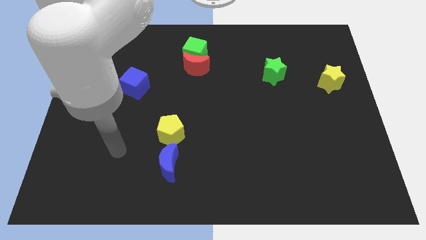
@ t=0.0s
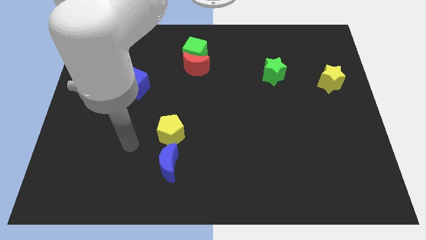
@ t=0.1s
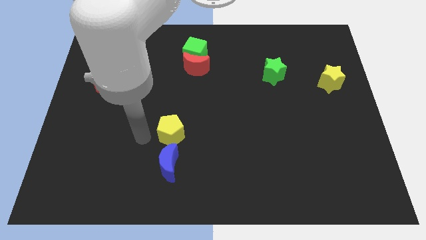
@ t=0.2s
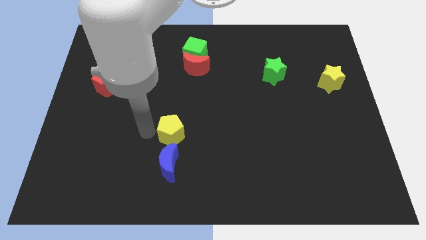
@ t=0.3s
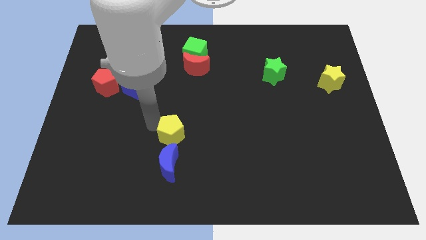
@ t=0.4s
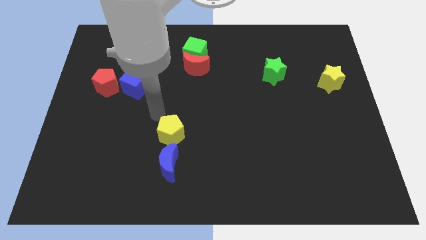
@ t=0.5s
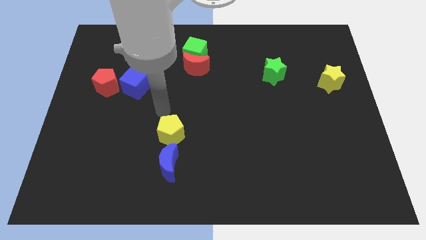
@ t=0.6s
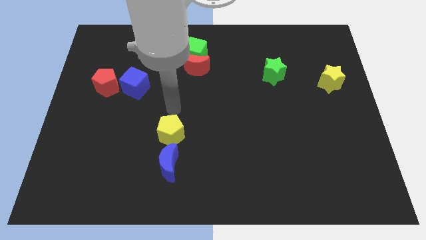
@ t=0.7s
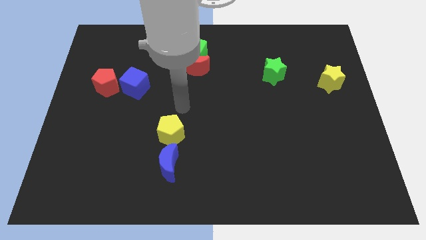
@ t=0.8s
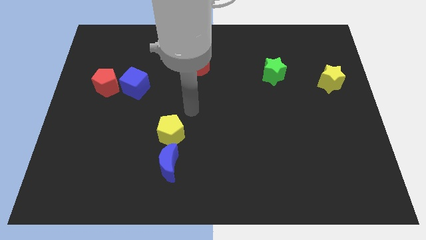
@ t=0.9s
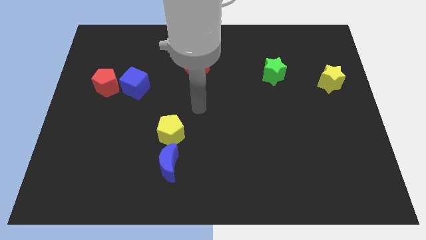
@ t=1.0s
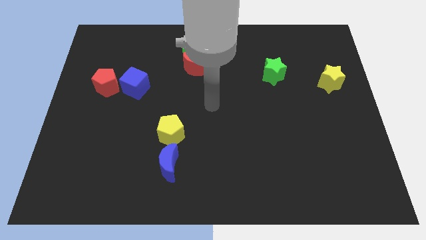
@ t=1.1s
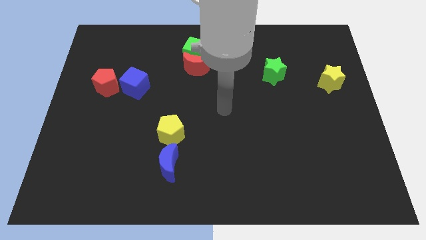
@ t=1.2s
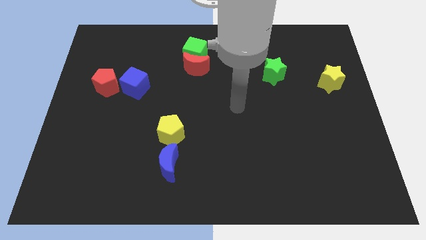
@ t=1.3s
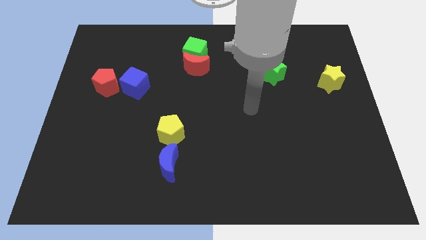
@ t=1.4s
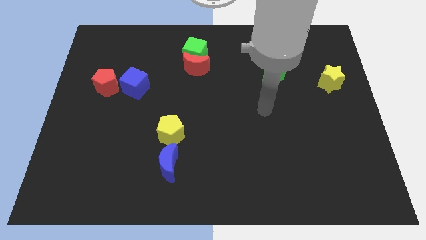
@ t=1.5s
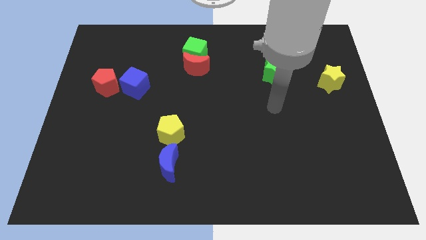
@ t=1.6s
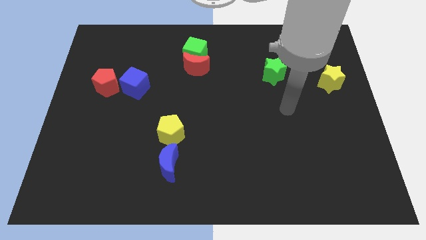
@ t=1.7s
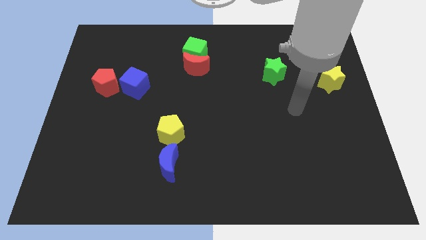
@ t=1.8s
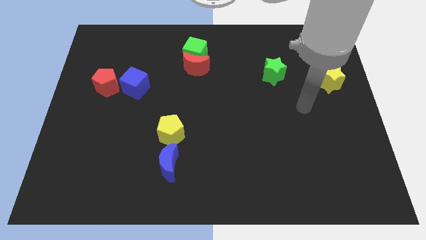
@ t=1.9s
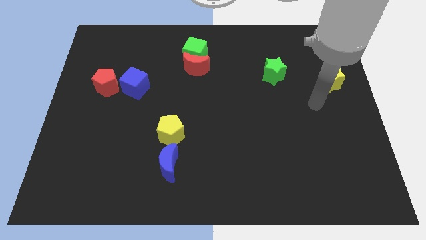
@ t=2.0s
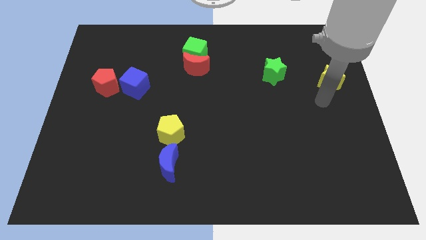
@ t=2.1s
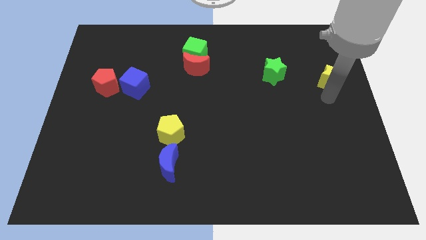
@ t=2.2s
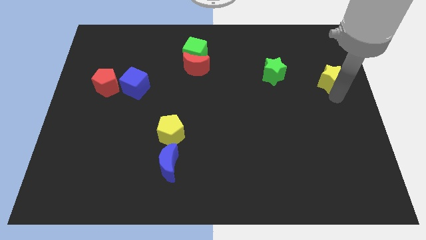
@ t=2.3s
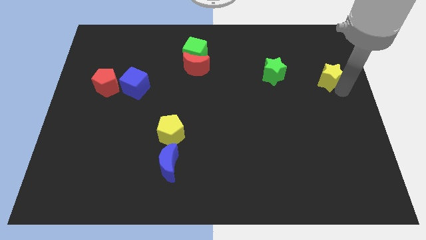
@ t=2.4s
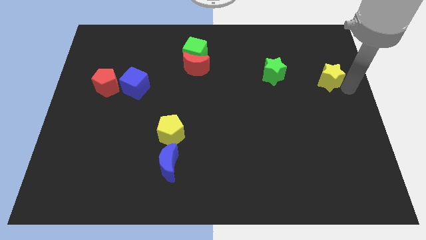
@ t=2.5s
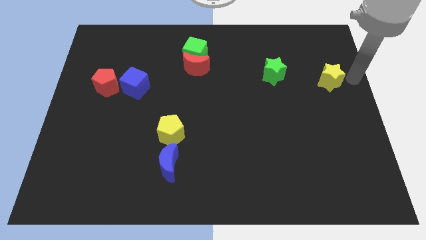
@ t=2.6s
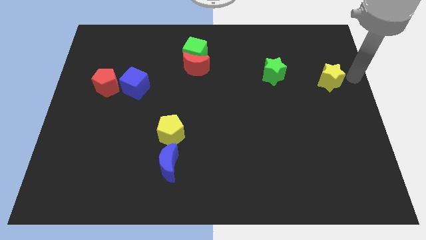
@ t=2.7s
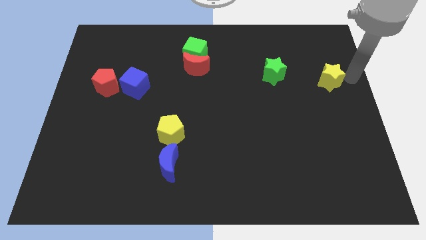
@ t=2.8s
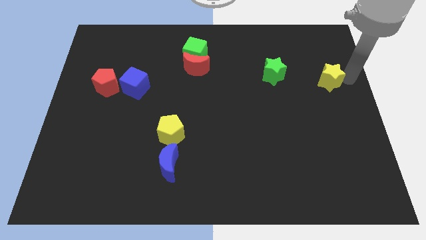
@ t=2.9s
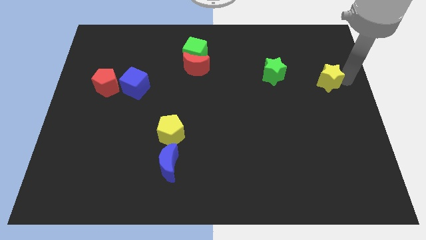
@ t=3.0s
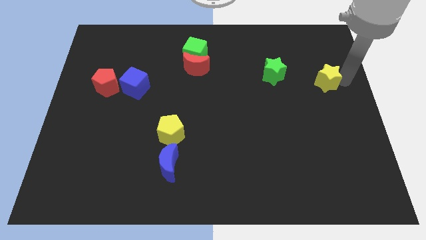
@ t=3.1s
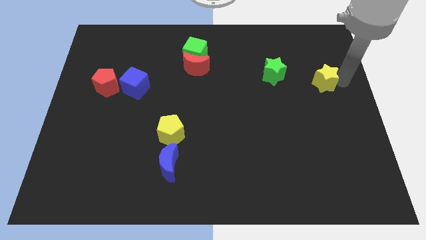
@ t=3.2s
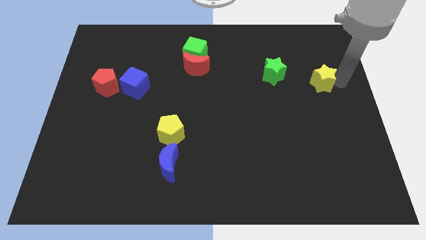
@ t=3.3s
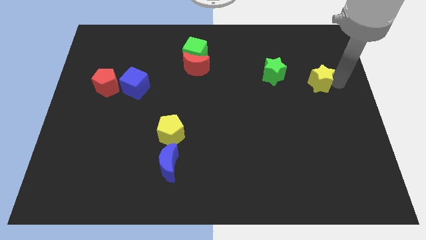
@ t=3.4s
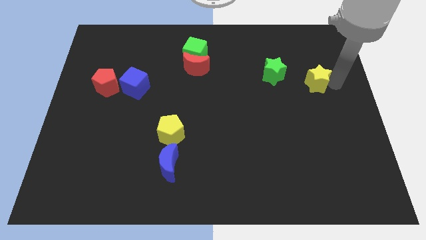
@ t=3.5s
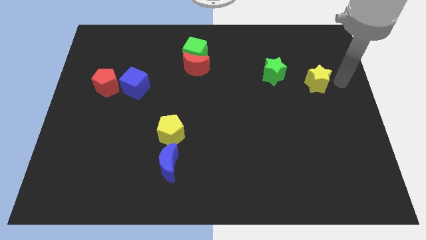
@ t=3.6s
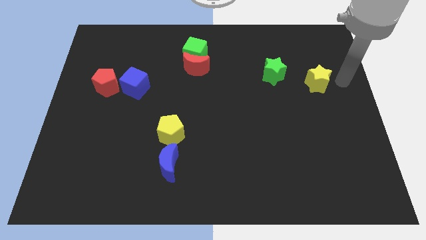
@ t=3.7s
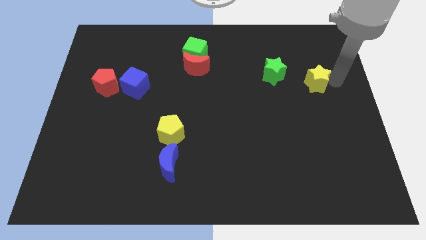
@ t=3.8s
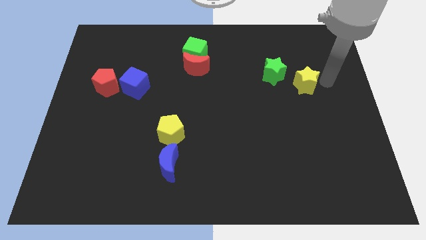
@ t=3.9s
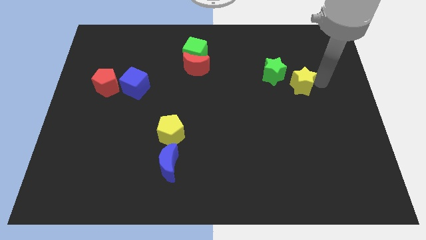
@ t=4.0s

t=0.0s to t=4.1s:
slide the yellow star slightly left

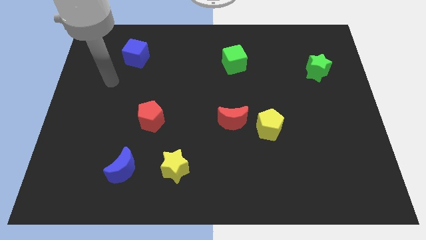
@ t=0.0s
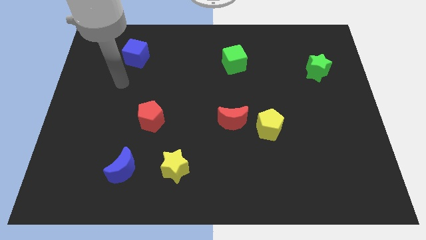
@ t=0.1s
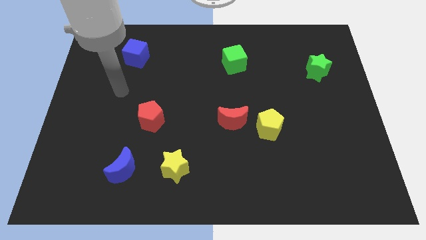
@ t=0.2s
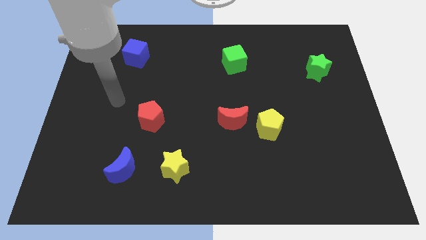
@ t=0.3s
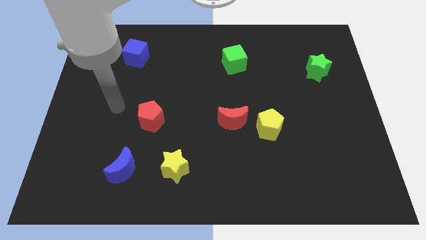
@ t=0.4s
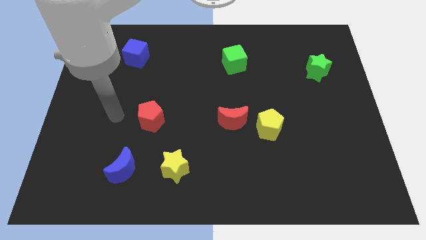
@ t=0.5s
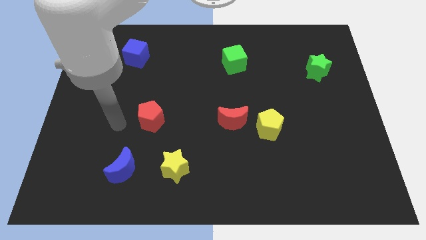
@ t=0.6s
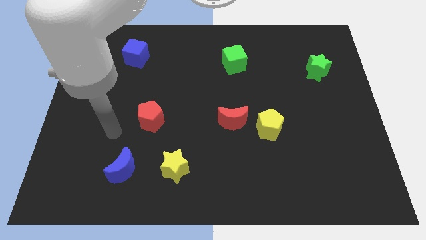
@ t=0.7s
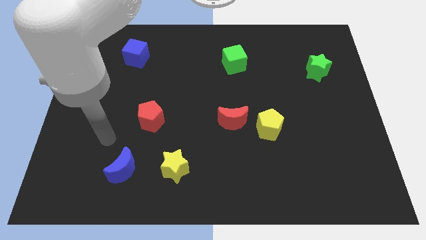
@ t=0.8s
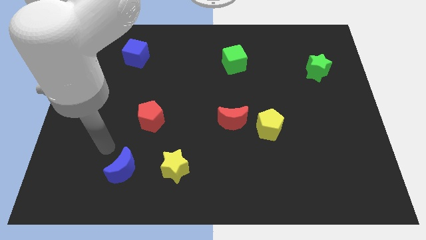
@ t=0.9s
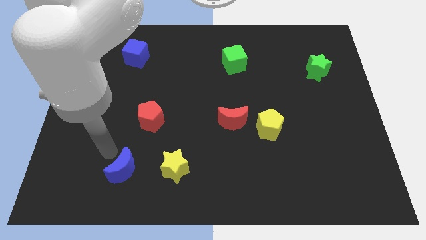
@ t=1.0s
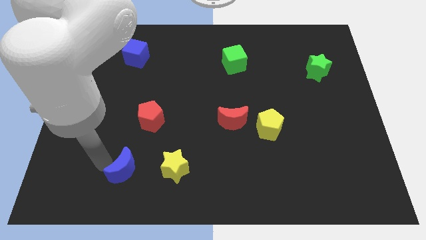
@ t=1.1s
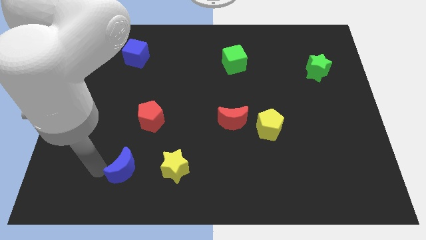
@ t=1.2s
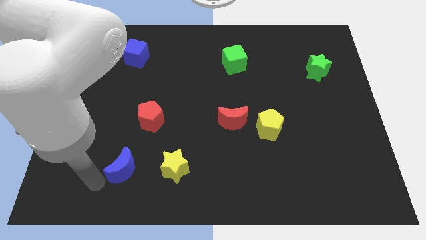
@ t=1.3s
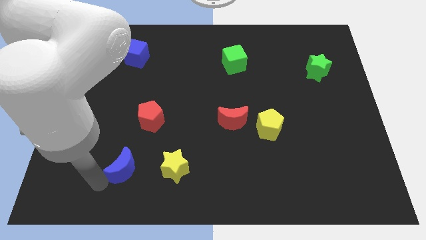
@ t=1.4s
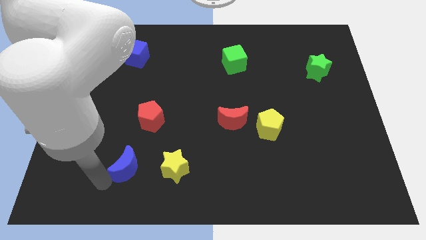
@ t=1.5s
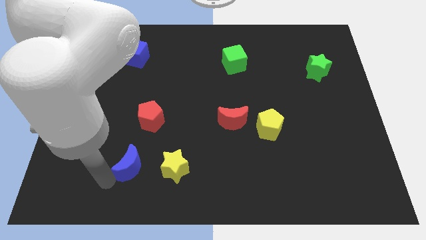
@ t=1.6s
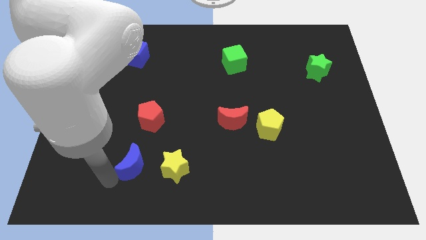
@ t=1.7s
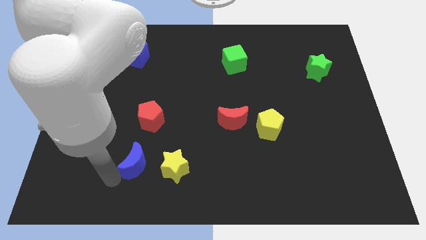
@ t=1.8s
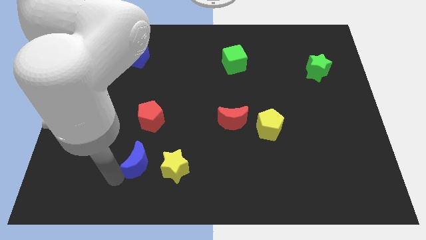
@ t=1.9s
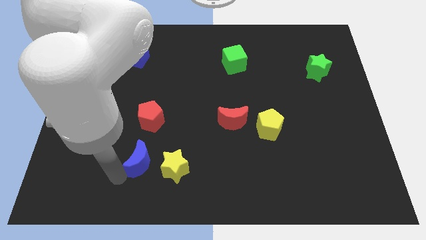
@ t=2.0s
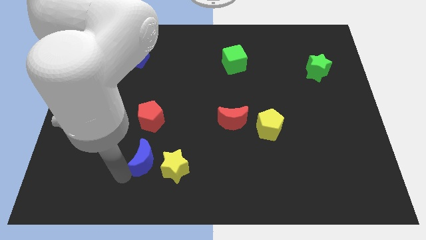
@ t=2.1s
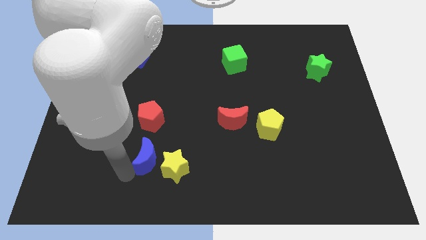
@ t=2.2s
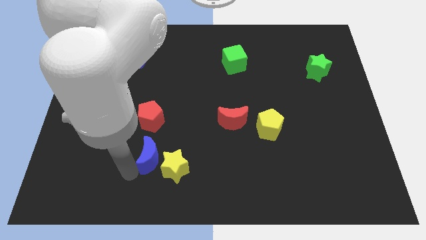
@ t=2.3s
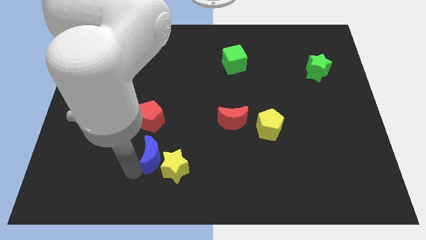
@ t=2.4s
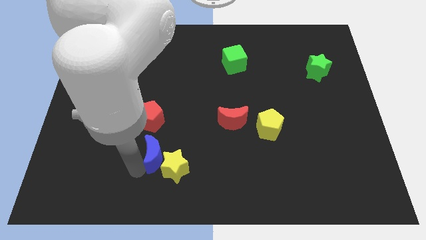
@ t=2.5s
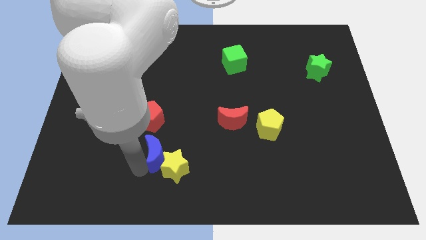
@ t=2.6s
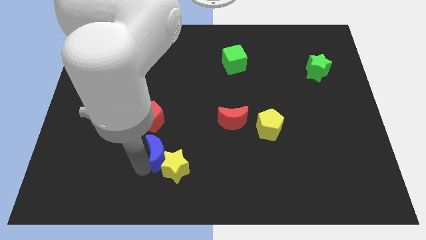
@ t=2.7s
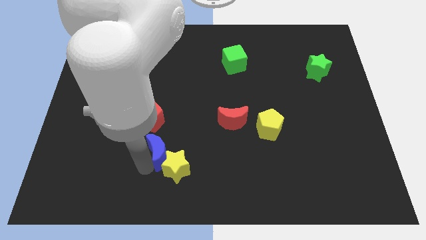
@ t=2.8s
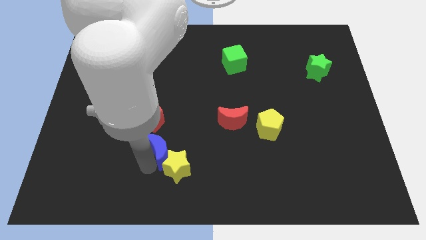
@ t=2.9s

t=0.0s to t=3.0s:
slightly move the blue moon to the right

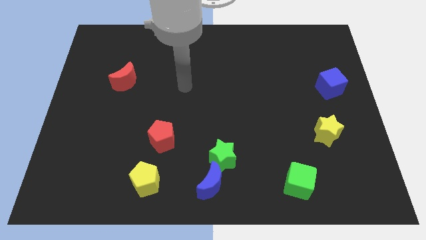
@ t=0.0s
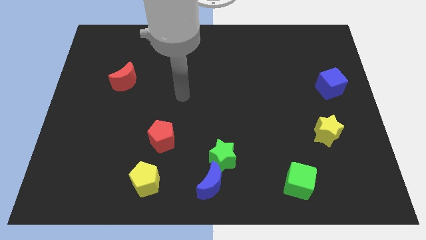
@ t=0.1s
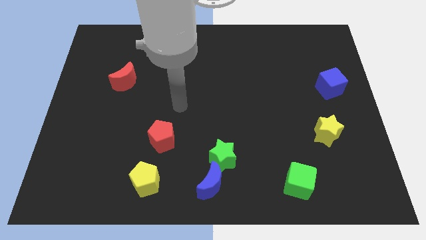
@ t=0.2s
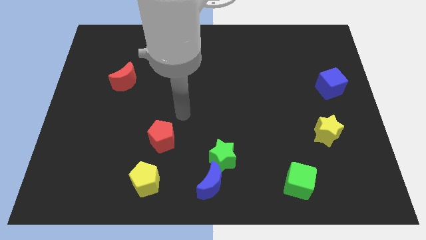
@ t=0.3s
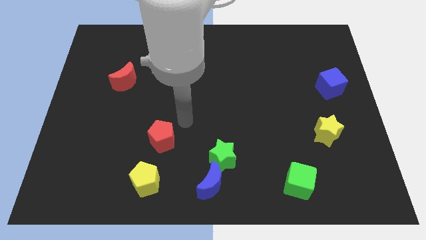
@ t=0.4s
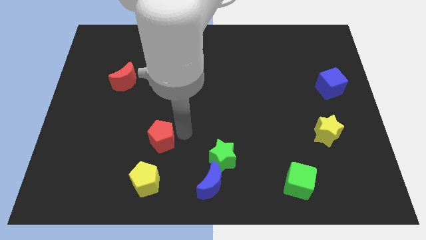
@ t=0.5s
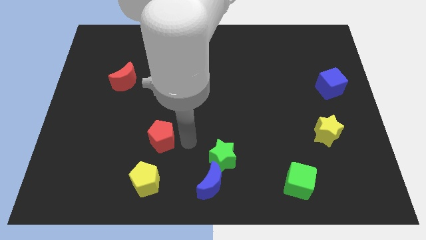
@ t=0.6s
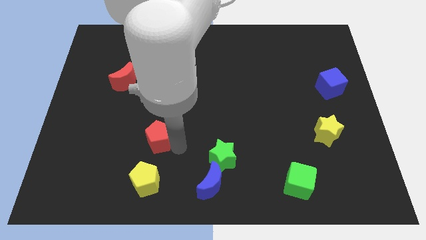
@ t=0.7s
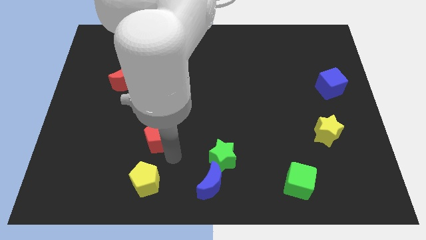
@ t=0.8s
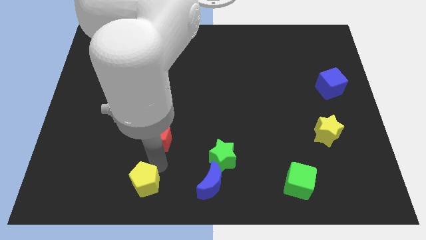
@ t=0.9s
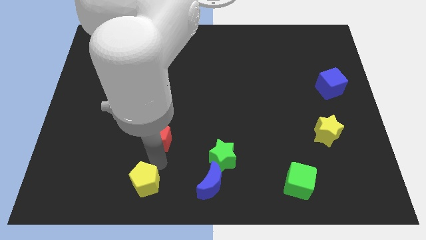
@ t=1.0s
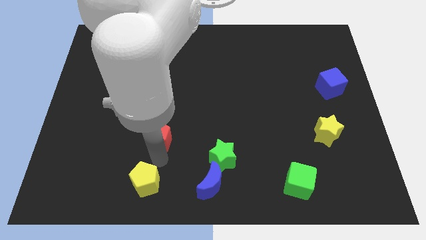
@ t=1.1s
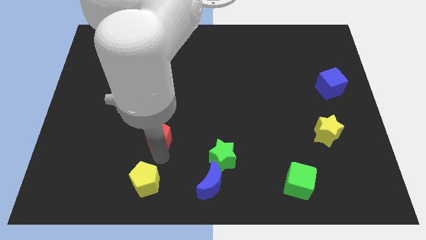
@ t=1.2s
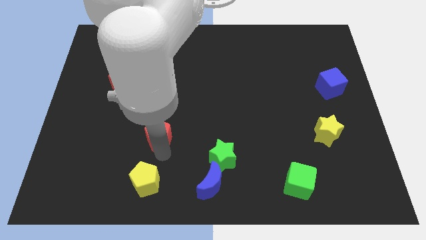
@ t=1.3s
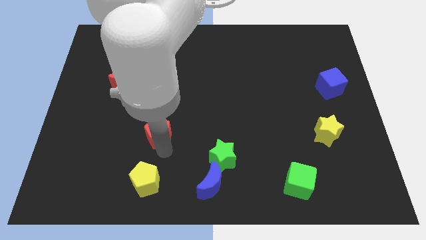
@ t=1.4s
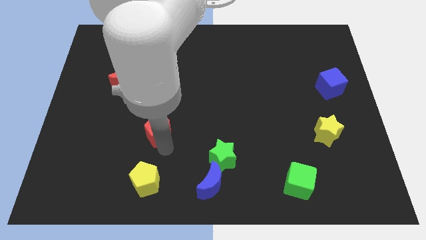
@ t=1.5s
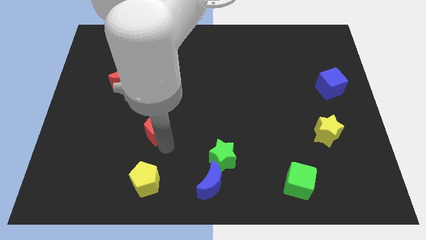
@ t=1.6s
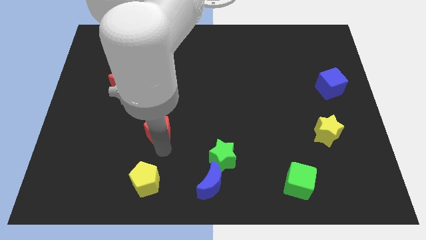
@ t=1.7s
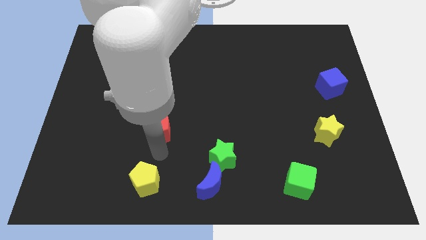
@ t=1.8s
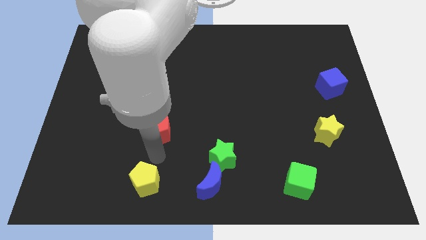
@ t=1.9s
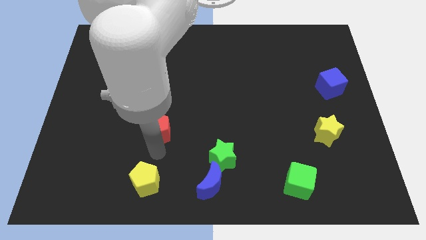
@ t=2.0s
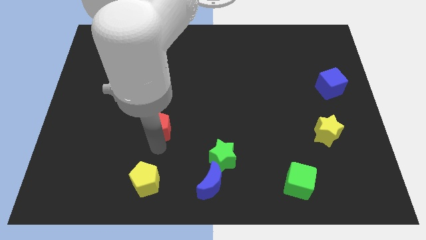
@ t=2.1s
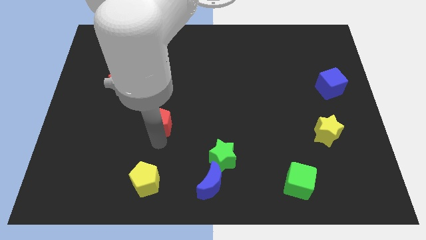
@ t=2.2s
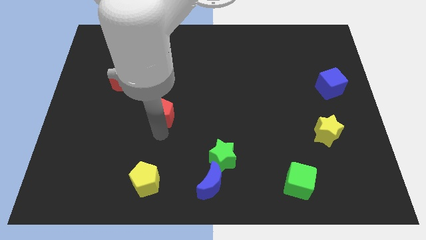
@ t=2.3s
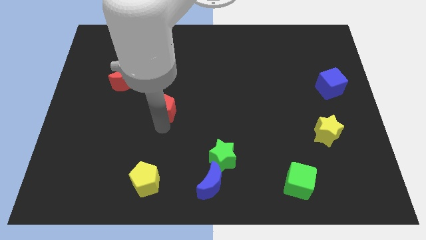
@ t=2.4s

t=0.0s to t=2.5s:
move the red pentagon a bit up
